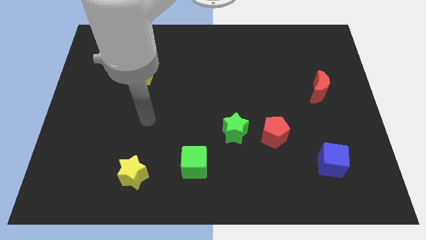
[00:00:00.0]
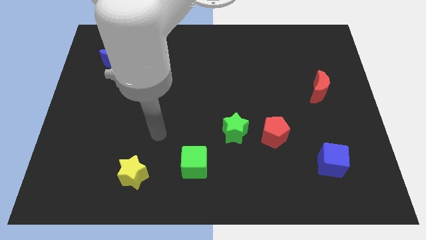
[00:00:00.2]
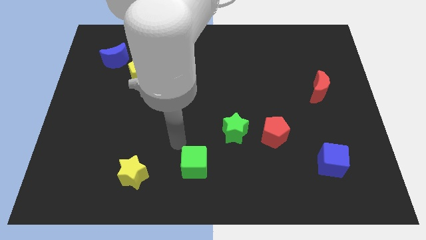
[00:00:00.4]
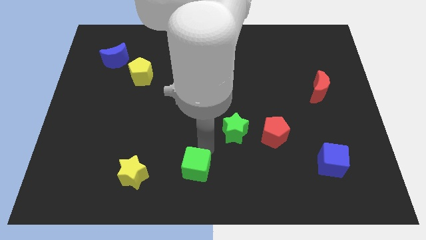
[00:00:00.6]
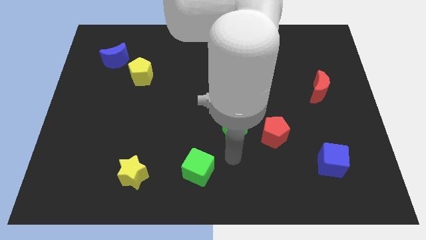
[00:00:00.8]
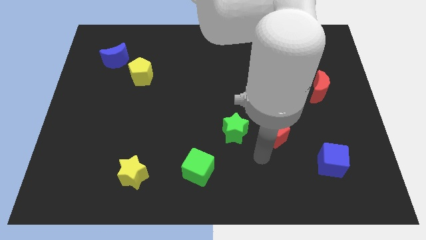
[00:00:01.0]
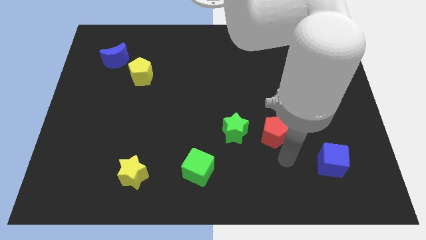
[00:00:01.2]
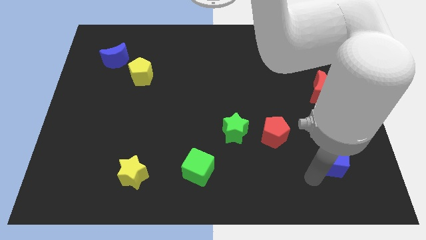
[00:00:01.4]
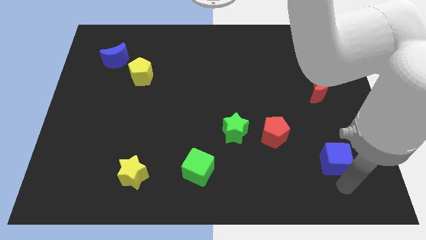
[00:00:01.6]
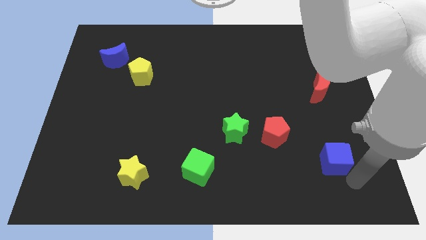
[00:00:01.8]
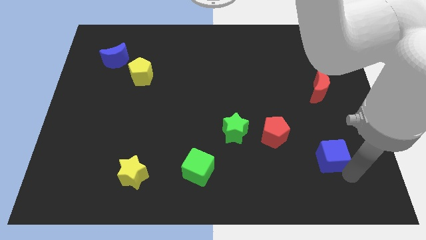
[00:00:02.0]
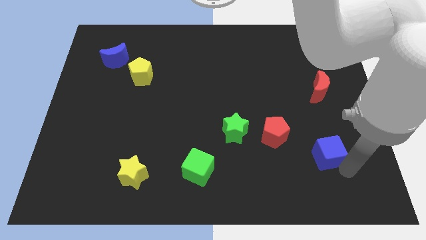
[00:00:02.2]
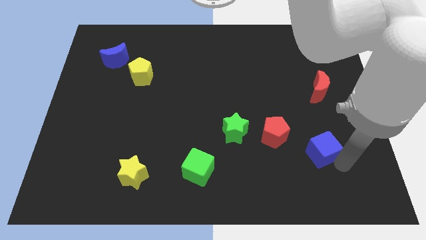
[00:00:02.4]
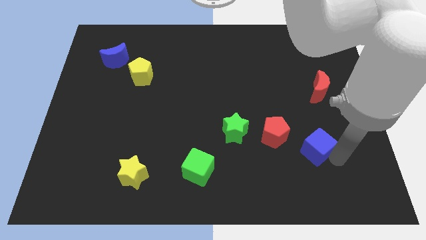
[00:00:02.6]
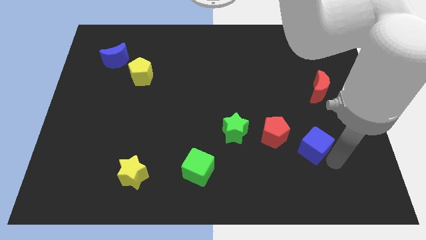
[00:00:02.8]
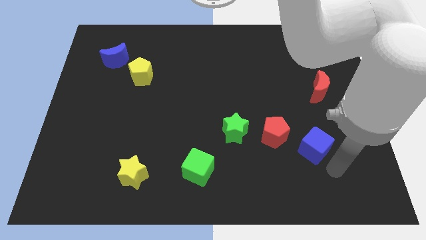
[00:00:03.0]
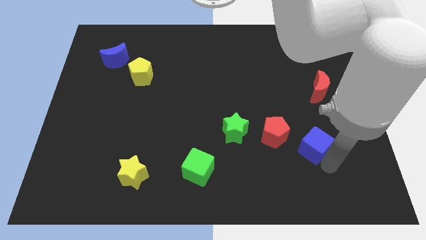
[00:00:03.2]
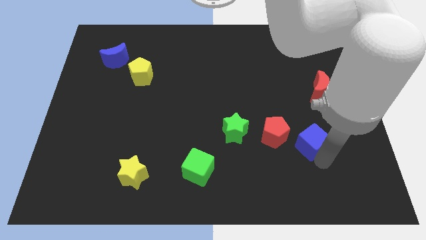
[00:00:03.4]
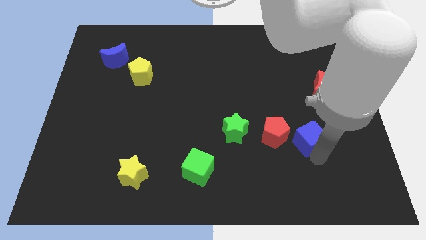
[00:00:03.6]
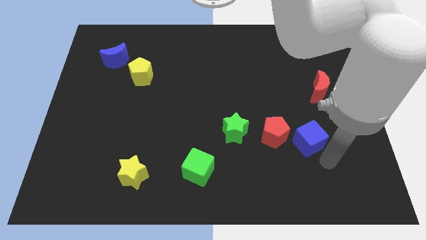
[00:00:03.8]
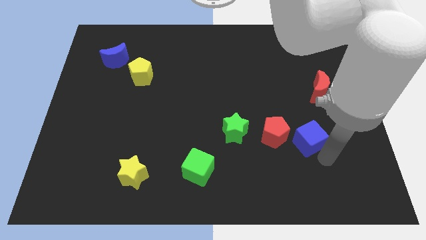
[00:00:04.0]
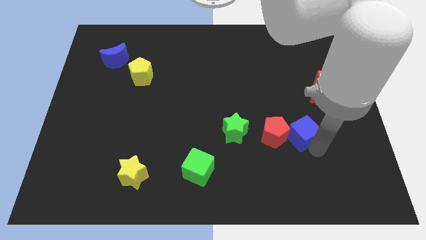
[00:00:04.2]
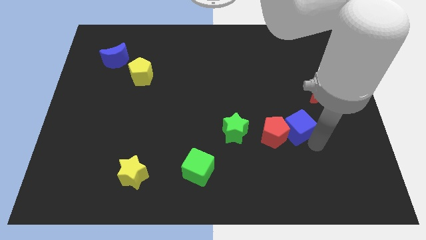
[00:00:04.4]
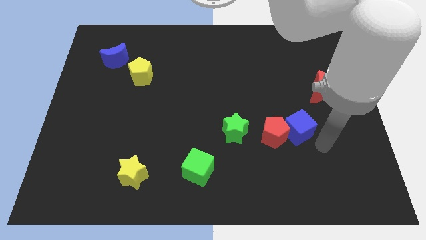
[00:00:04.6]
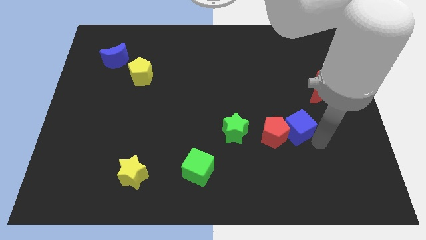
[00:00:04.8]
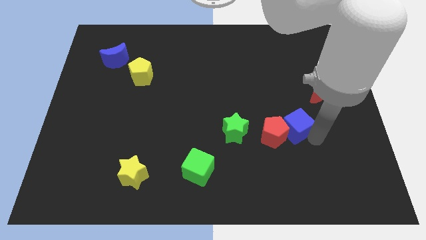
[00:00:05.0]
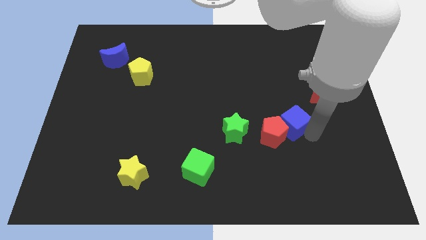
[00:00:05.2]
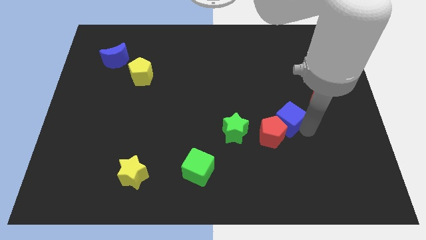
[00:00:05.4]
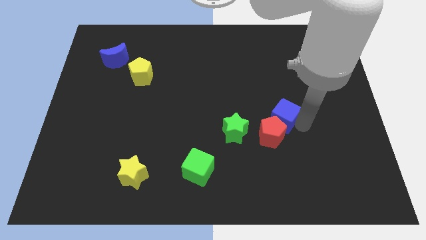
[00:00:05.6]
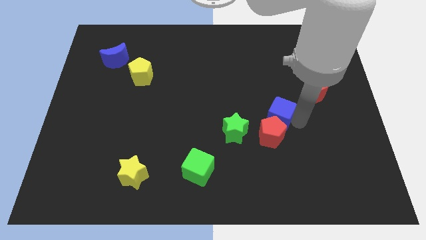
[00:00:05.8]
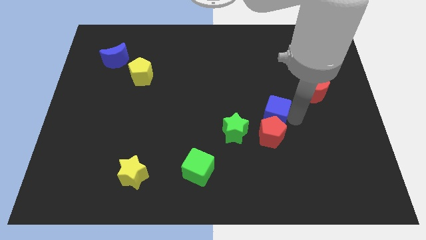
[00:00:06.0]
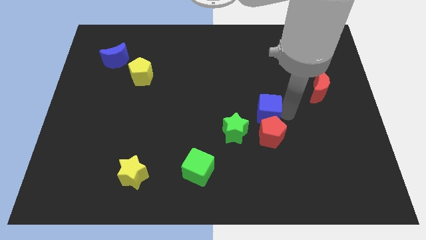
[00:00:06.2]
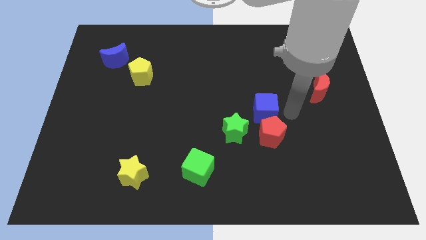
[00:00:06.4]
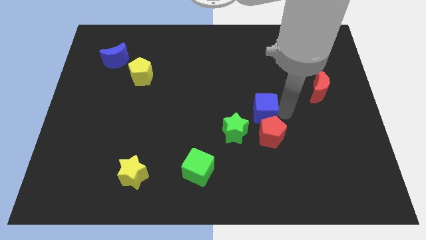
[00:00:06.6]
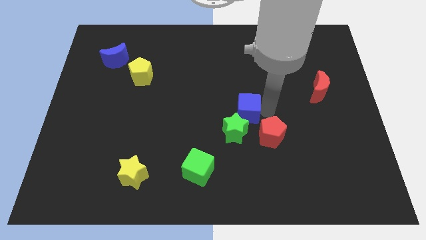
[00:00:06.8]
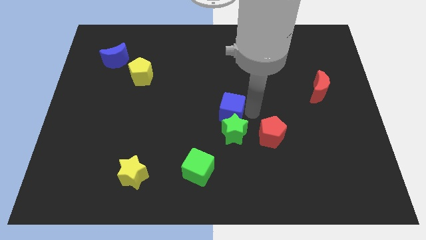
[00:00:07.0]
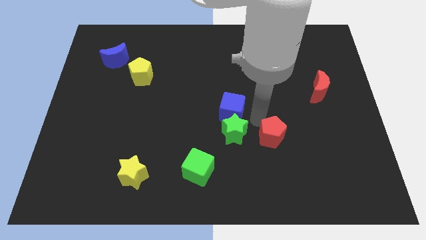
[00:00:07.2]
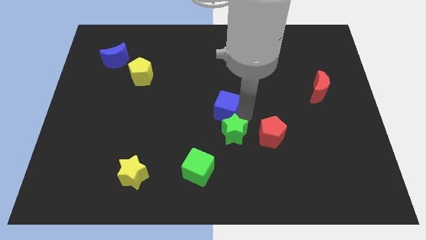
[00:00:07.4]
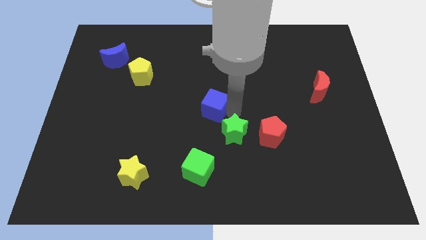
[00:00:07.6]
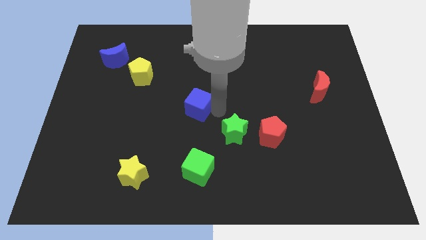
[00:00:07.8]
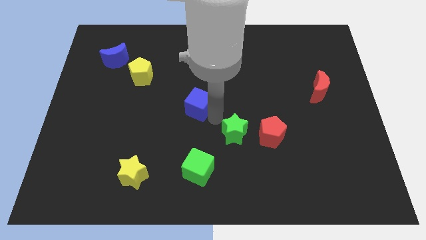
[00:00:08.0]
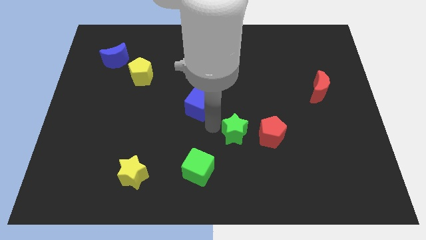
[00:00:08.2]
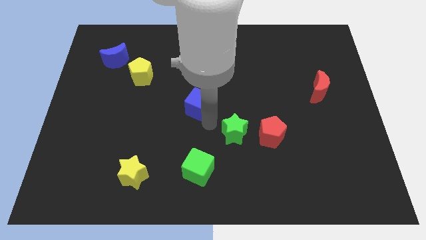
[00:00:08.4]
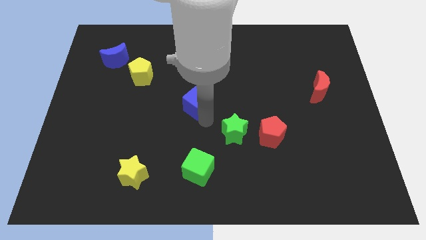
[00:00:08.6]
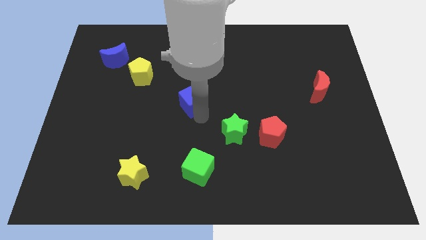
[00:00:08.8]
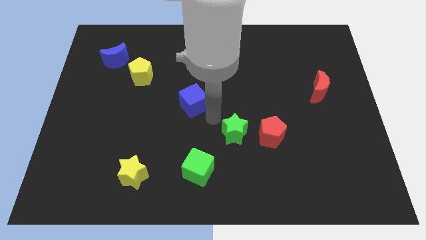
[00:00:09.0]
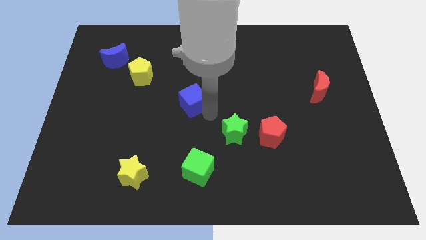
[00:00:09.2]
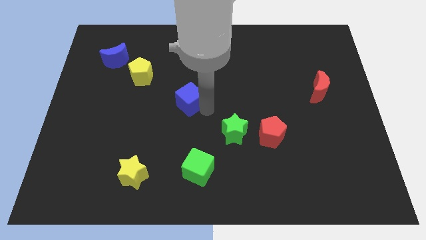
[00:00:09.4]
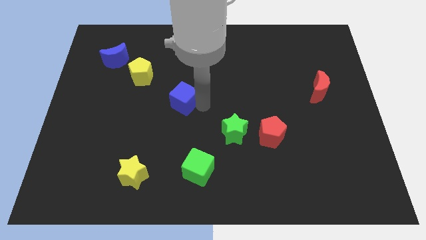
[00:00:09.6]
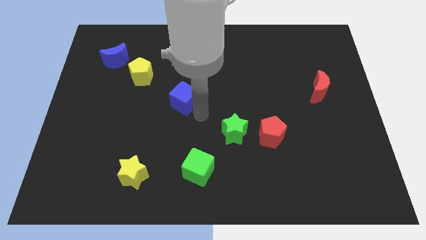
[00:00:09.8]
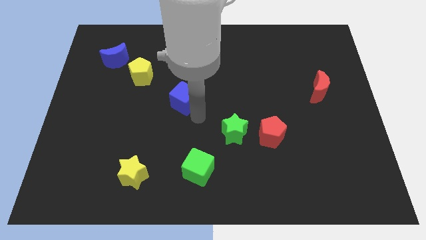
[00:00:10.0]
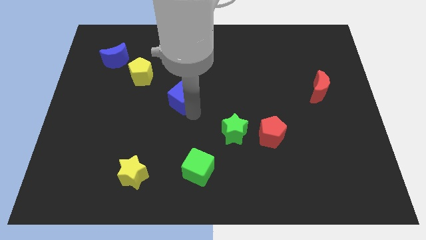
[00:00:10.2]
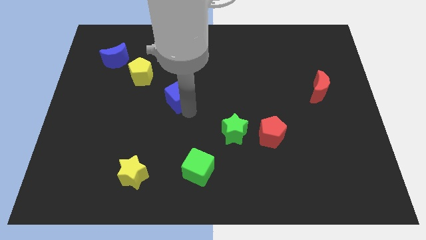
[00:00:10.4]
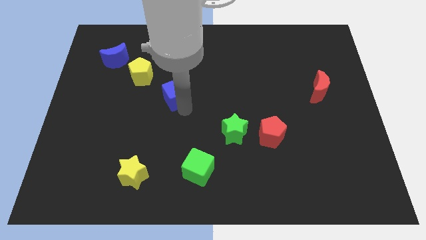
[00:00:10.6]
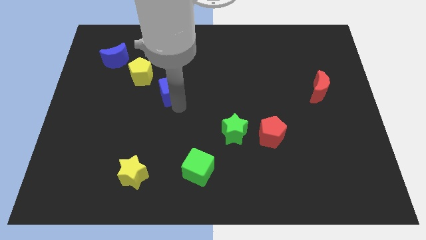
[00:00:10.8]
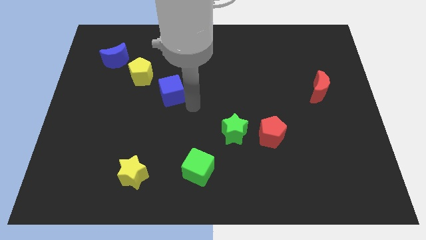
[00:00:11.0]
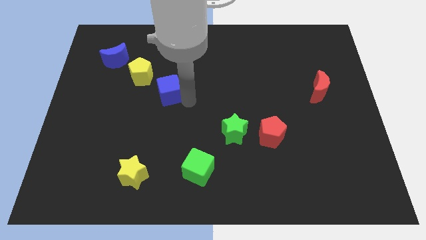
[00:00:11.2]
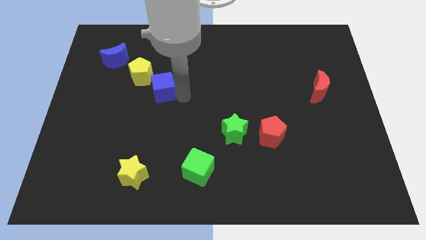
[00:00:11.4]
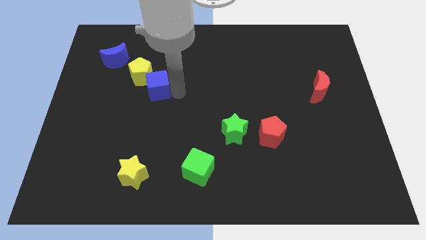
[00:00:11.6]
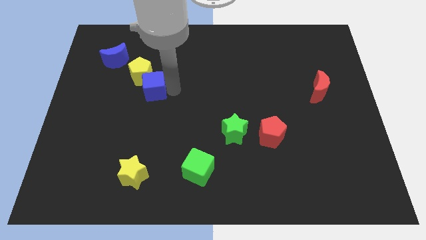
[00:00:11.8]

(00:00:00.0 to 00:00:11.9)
slide the blue cube towards the yellow pentagon

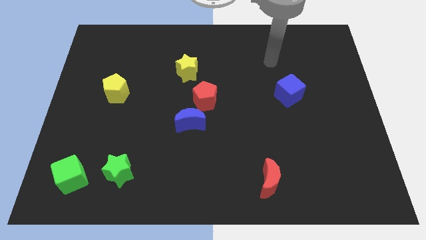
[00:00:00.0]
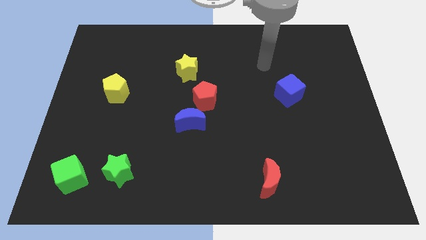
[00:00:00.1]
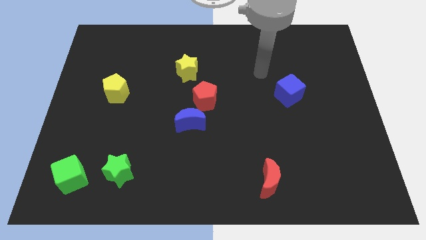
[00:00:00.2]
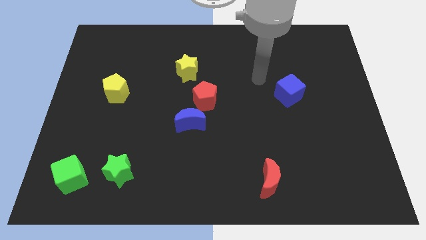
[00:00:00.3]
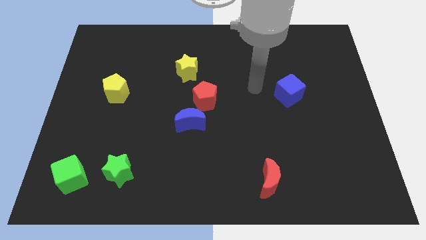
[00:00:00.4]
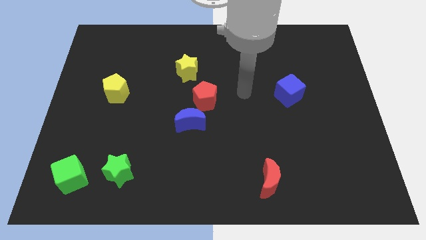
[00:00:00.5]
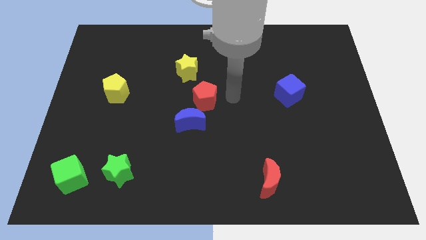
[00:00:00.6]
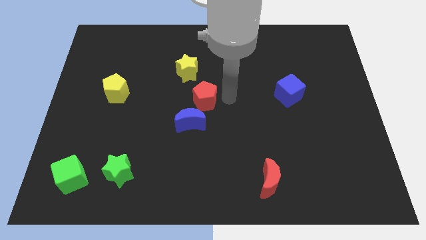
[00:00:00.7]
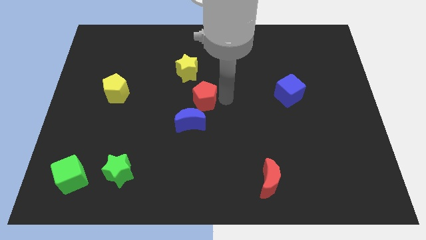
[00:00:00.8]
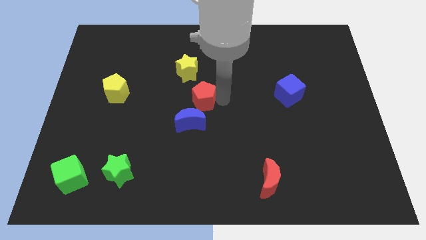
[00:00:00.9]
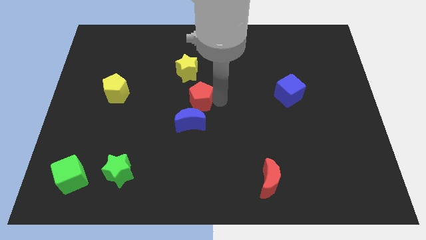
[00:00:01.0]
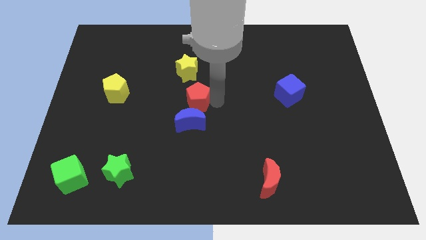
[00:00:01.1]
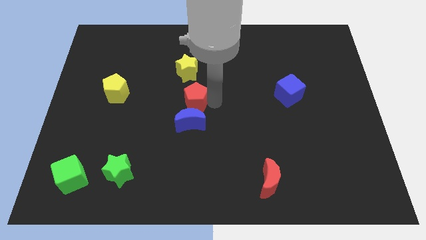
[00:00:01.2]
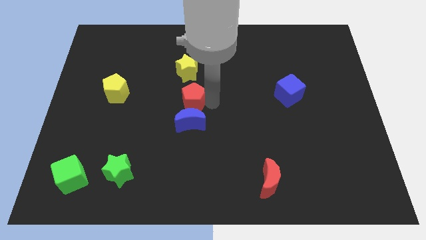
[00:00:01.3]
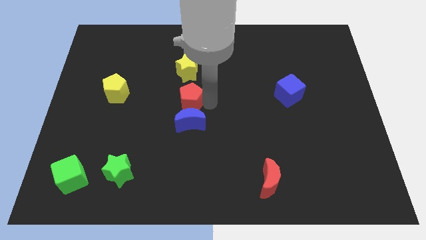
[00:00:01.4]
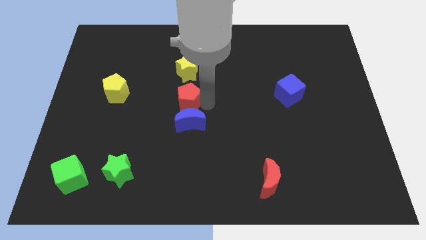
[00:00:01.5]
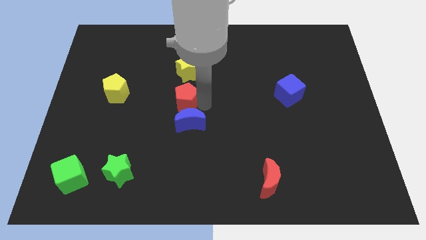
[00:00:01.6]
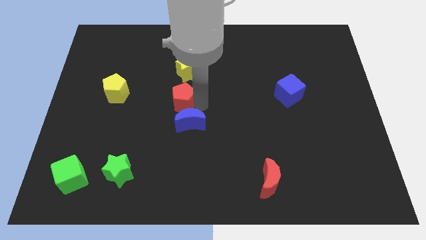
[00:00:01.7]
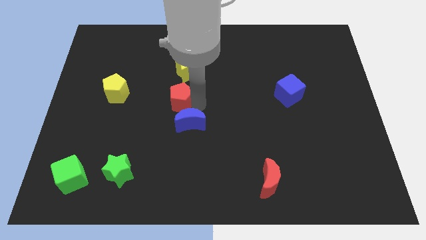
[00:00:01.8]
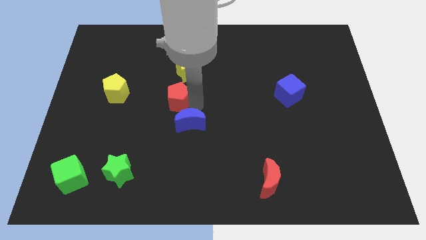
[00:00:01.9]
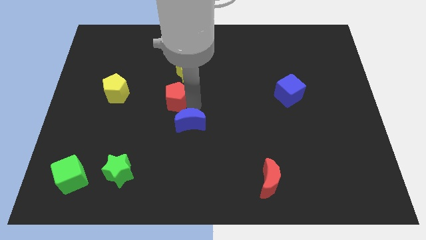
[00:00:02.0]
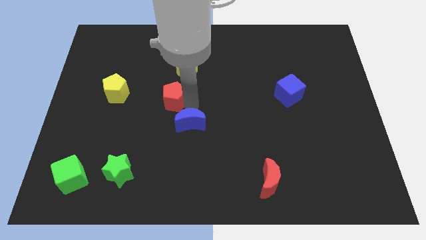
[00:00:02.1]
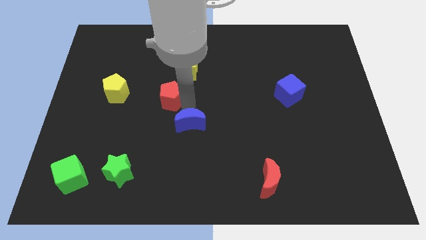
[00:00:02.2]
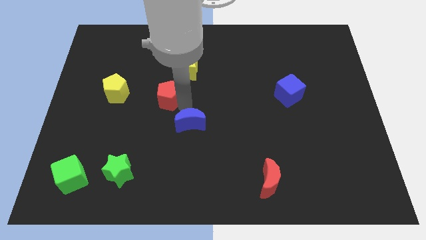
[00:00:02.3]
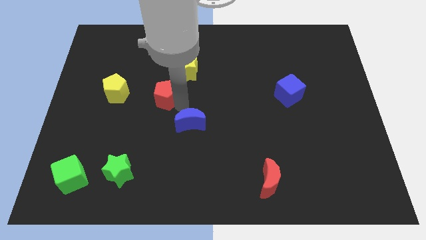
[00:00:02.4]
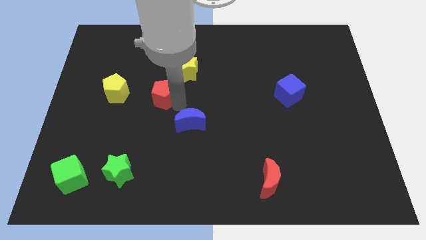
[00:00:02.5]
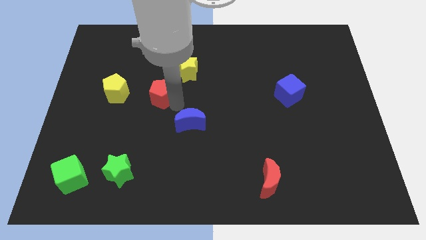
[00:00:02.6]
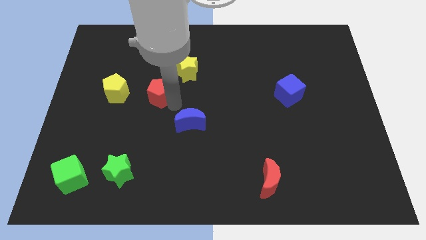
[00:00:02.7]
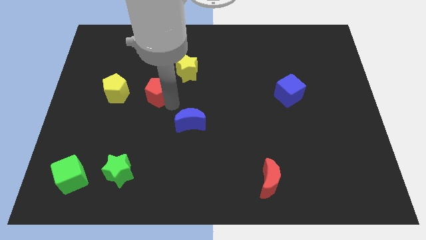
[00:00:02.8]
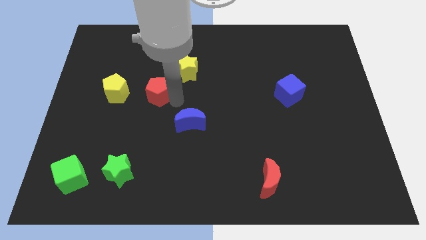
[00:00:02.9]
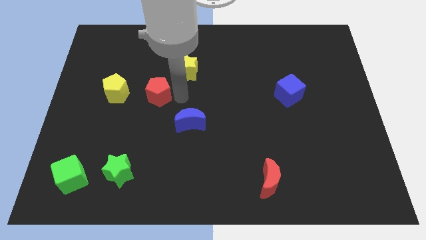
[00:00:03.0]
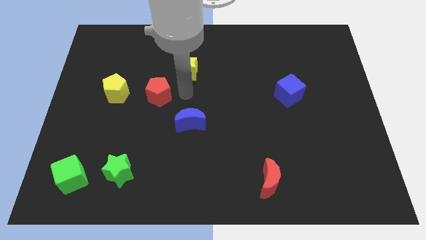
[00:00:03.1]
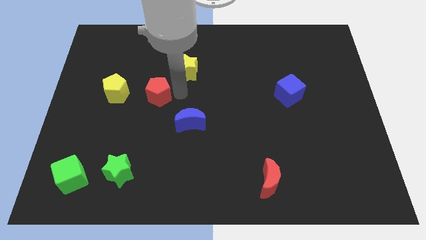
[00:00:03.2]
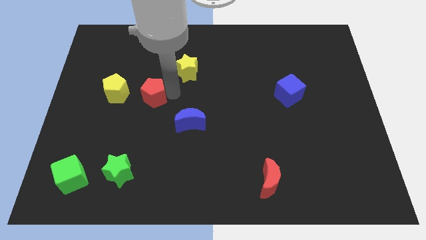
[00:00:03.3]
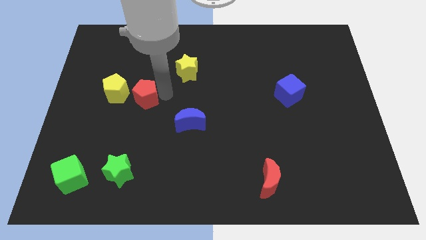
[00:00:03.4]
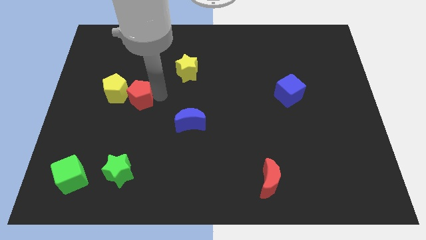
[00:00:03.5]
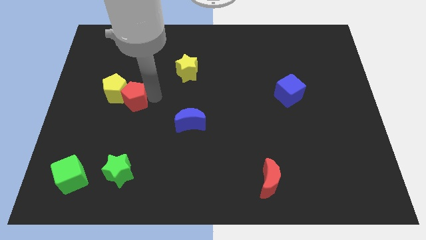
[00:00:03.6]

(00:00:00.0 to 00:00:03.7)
put the red pentagon to the yellow pentagon
